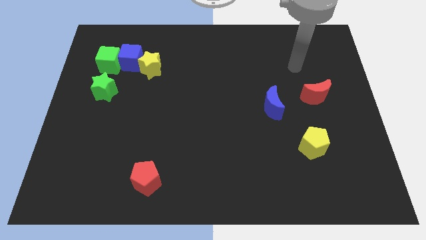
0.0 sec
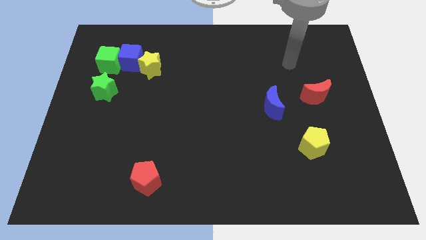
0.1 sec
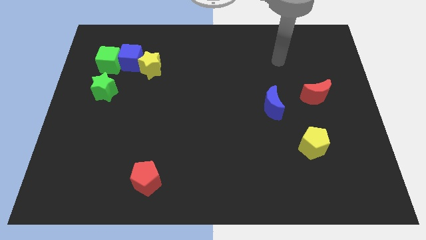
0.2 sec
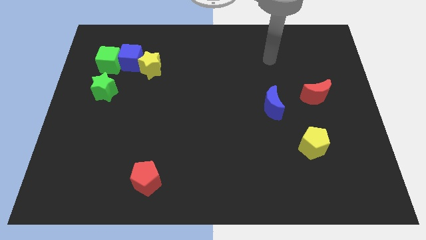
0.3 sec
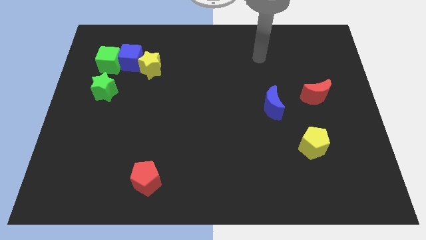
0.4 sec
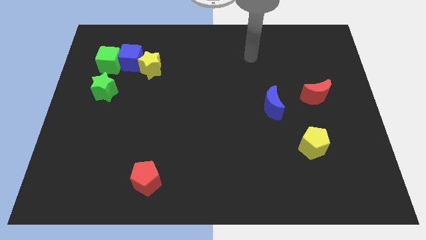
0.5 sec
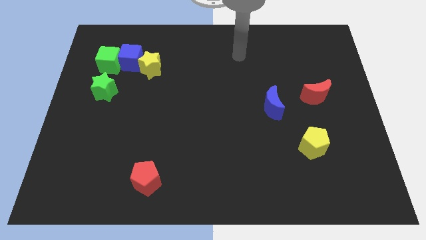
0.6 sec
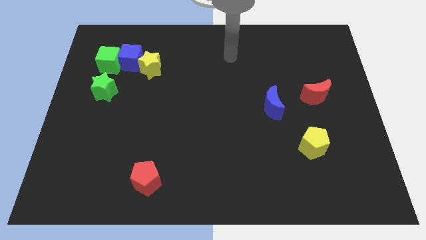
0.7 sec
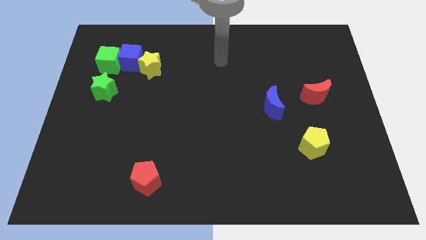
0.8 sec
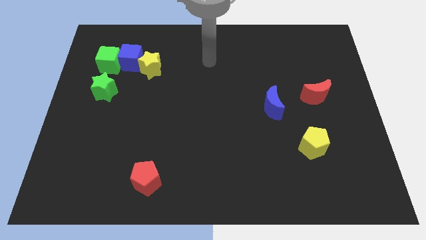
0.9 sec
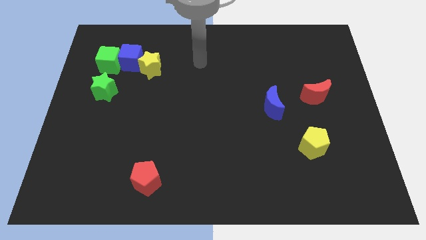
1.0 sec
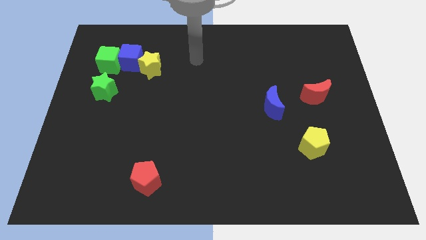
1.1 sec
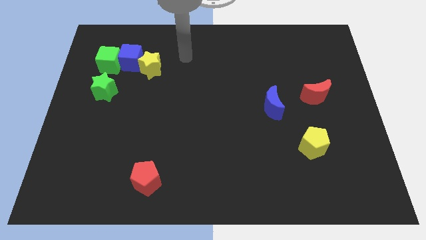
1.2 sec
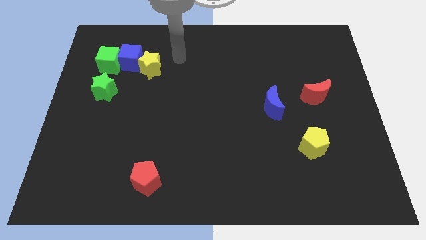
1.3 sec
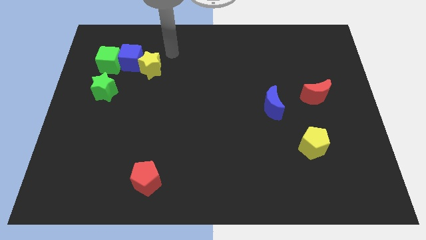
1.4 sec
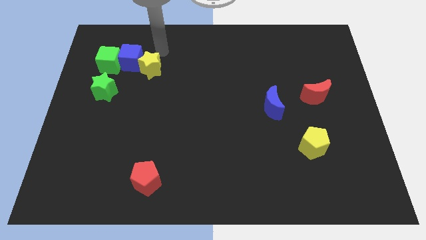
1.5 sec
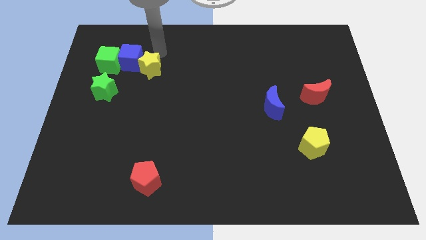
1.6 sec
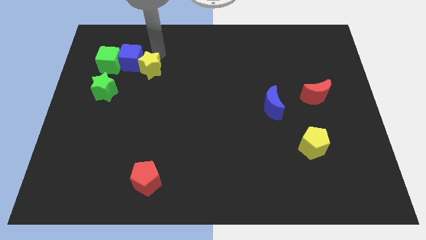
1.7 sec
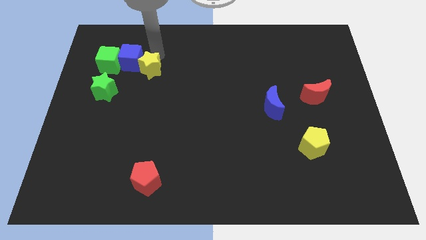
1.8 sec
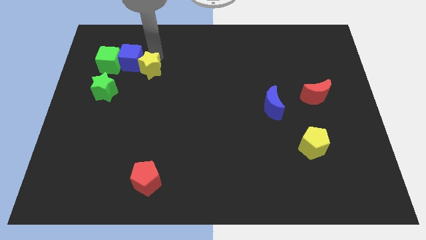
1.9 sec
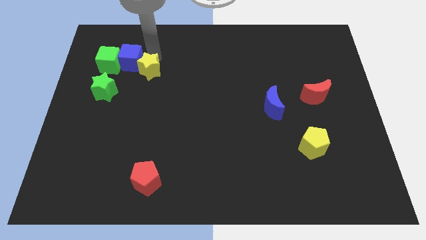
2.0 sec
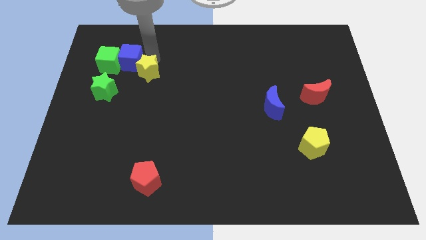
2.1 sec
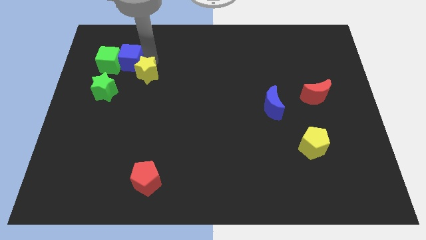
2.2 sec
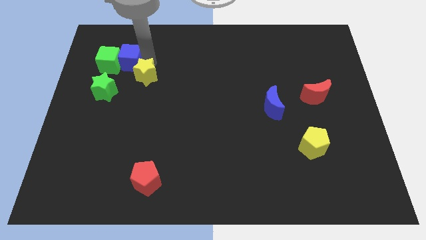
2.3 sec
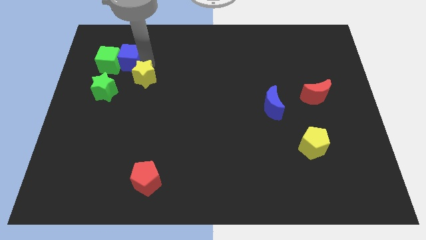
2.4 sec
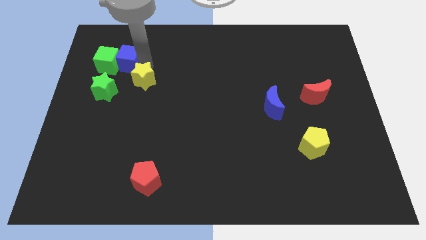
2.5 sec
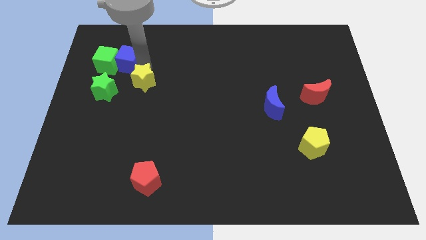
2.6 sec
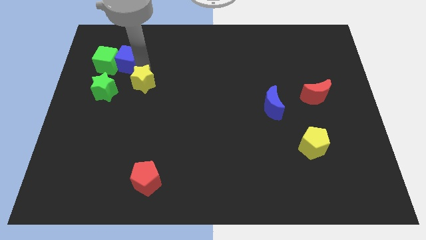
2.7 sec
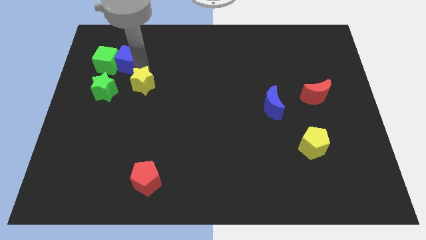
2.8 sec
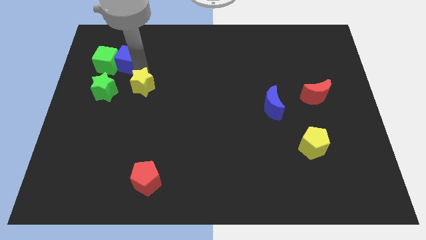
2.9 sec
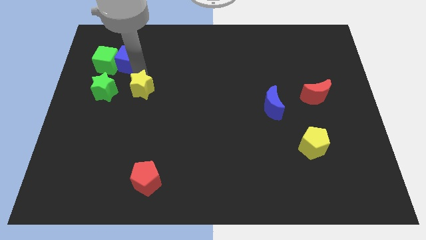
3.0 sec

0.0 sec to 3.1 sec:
push the yellow star downwards somewhat

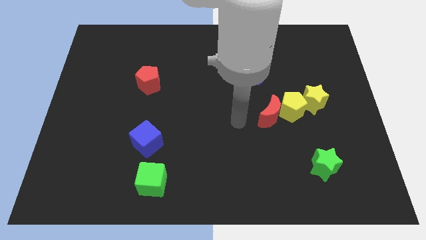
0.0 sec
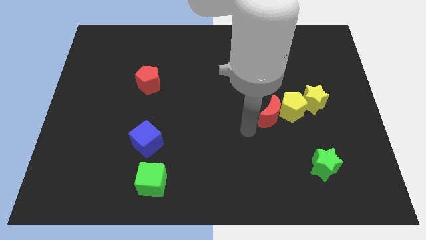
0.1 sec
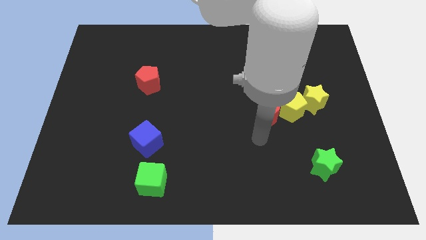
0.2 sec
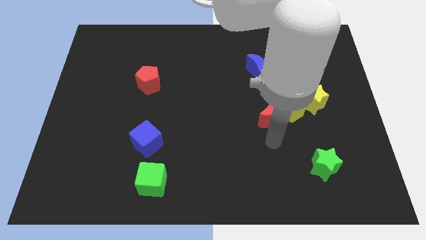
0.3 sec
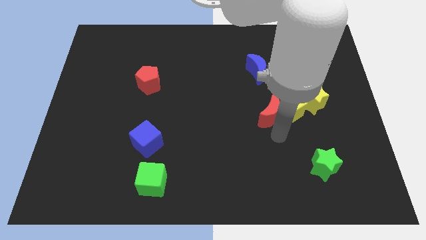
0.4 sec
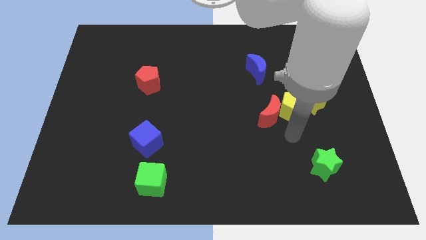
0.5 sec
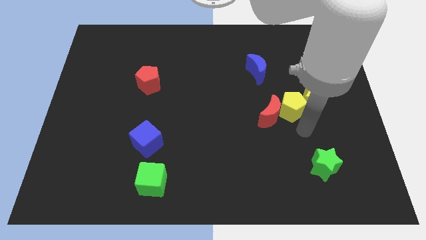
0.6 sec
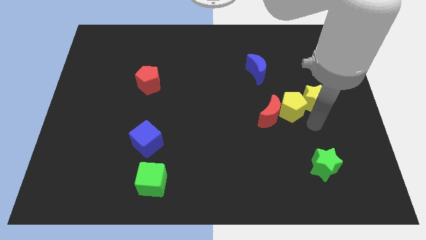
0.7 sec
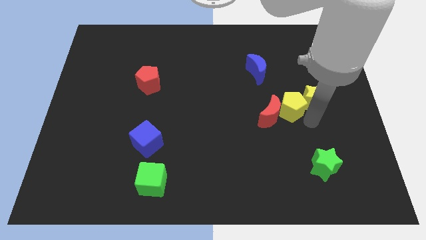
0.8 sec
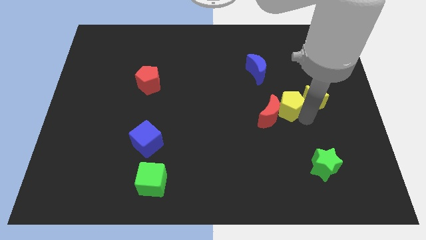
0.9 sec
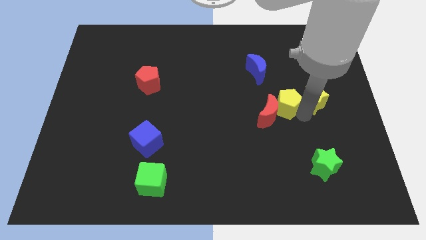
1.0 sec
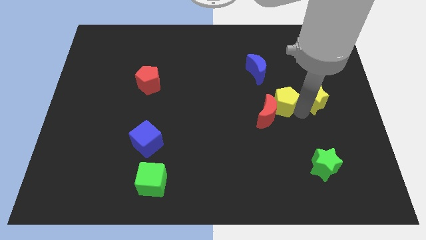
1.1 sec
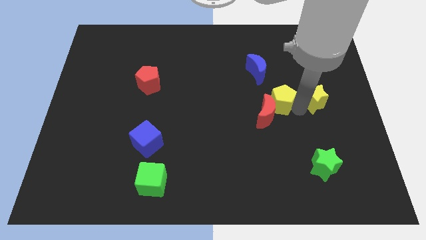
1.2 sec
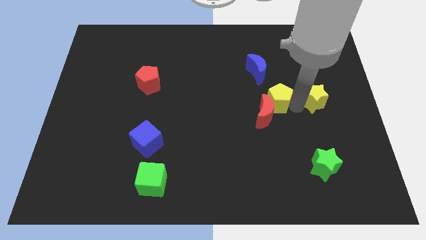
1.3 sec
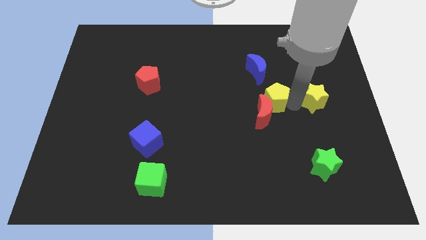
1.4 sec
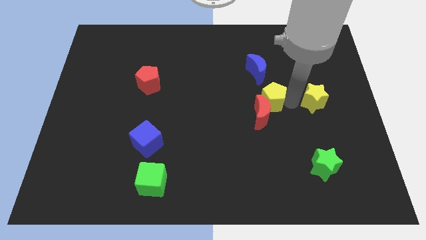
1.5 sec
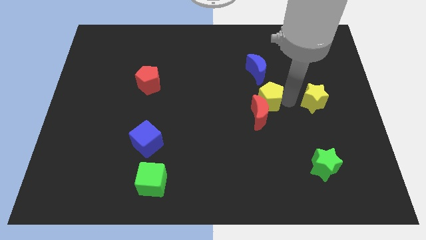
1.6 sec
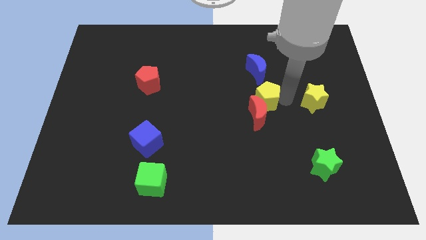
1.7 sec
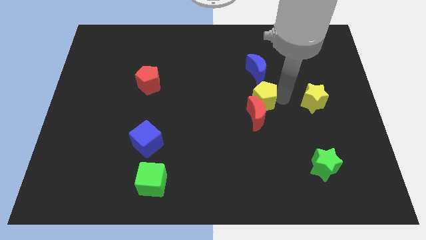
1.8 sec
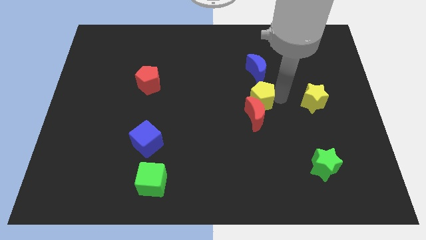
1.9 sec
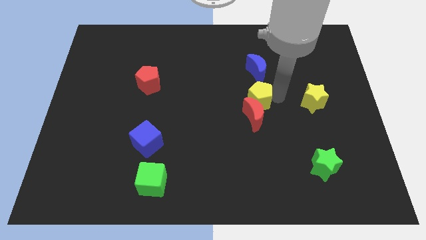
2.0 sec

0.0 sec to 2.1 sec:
slightly push the yellow pentagon to the left

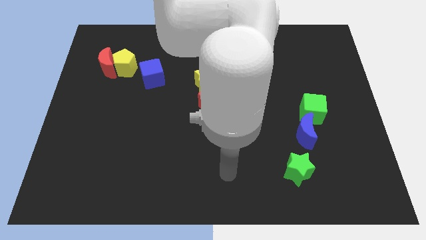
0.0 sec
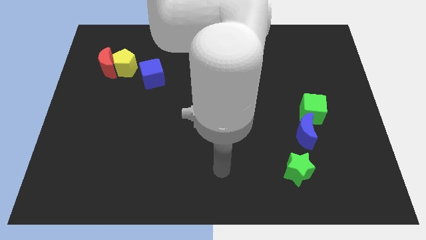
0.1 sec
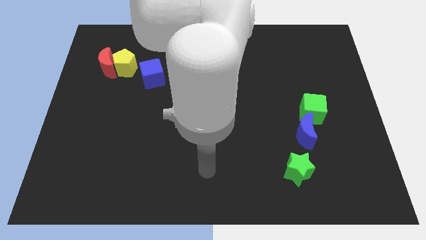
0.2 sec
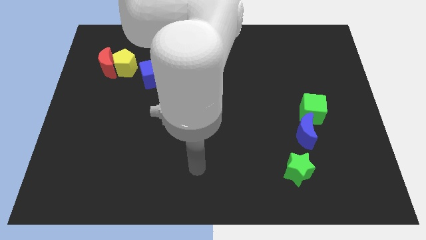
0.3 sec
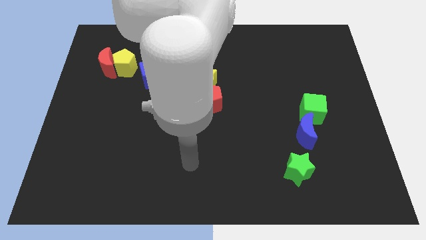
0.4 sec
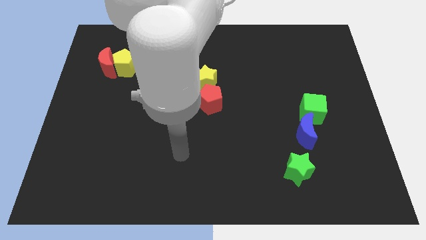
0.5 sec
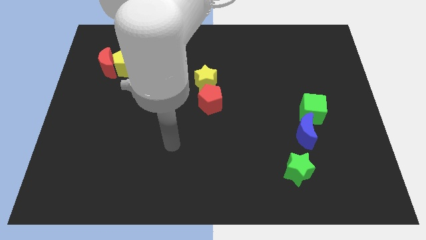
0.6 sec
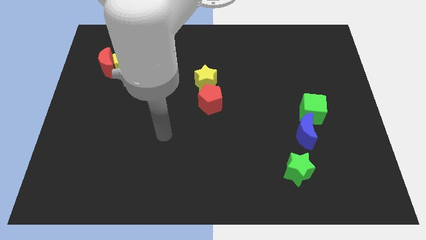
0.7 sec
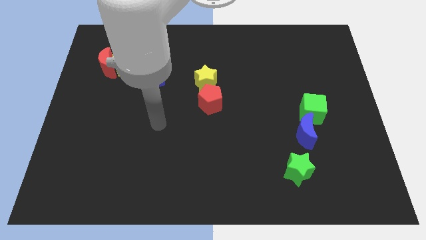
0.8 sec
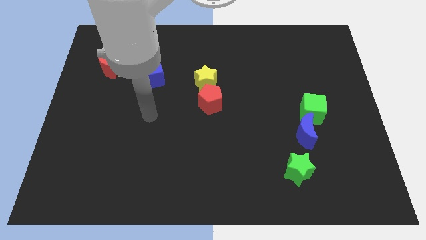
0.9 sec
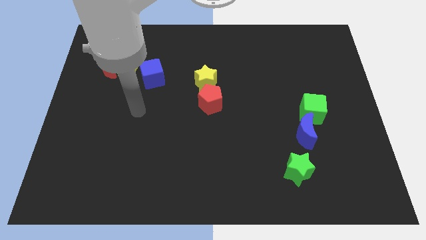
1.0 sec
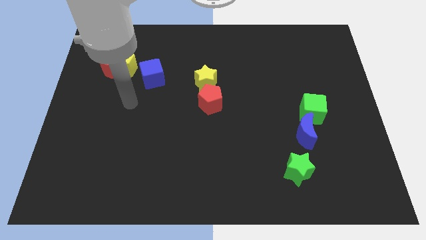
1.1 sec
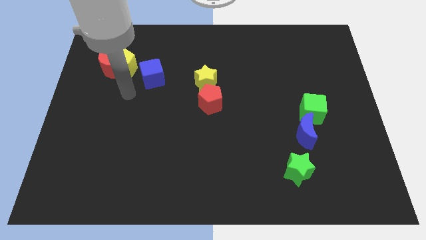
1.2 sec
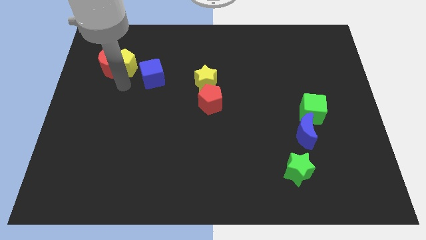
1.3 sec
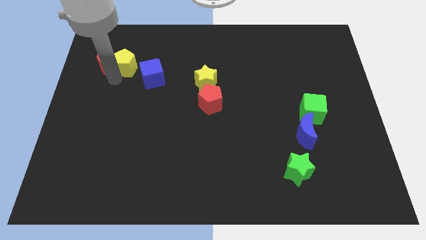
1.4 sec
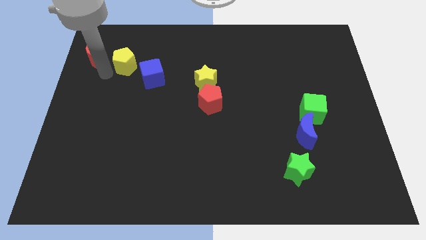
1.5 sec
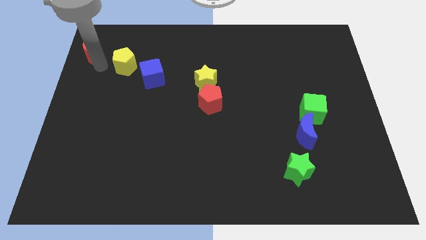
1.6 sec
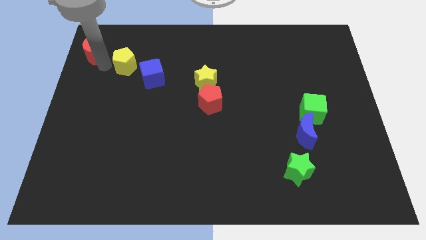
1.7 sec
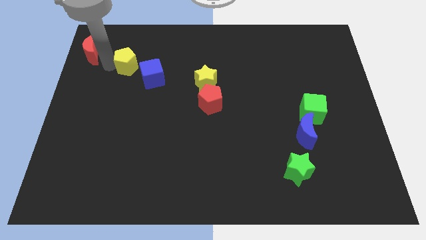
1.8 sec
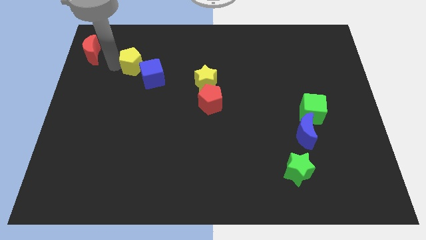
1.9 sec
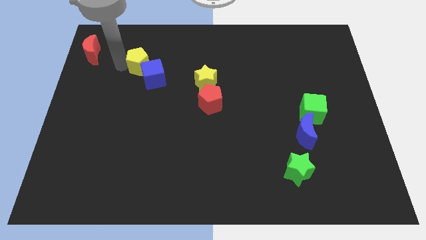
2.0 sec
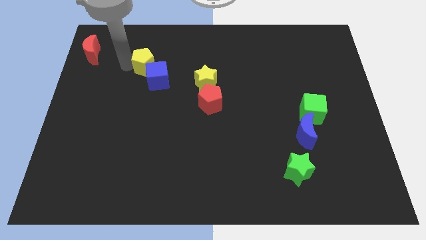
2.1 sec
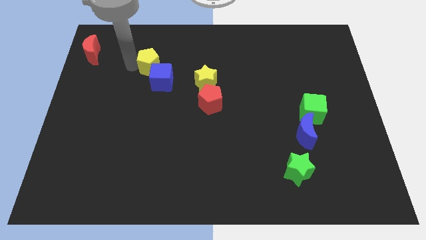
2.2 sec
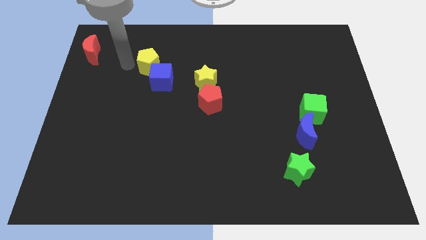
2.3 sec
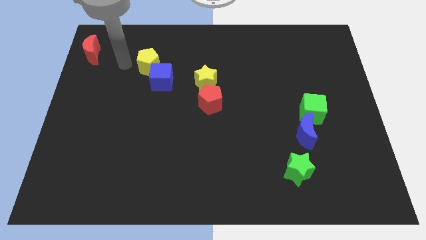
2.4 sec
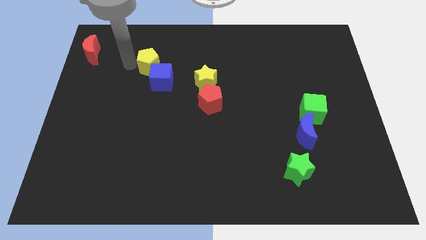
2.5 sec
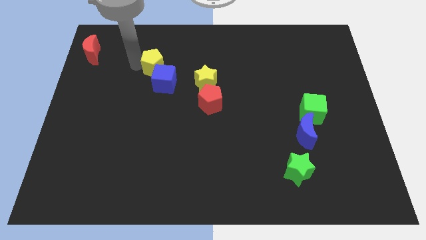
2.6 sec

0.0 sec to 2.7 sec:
push the yellow pentagon a little right

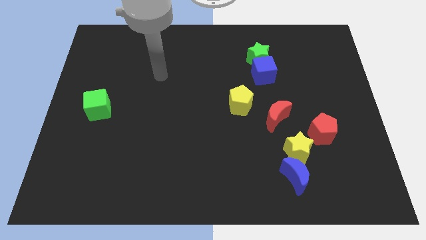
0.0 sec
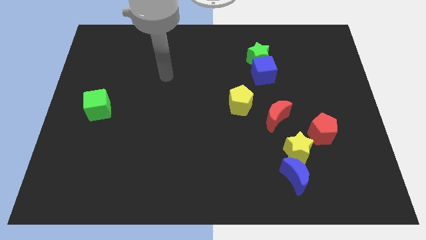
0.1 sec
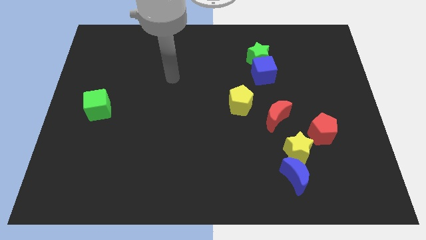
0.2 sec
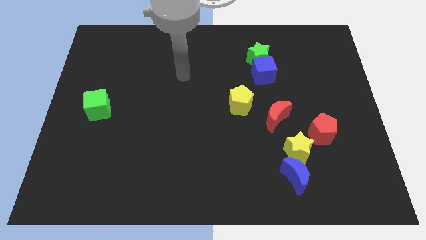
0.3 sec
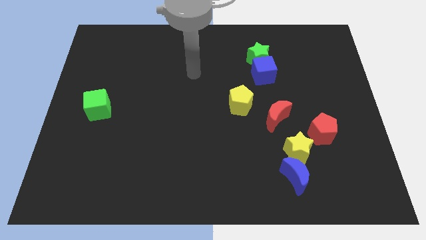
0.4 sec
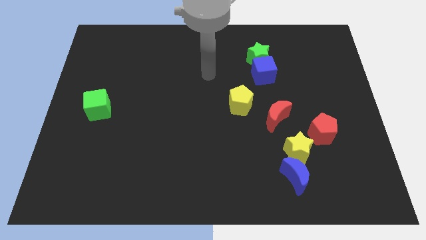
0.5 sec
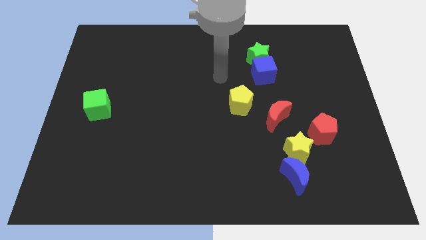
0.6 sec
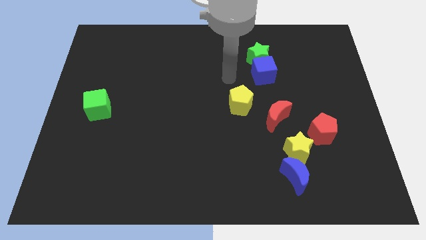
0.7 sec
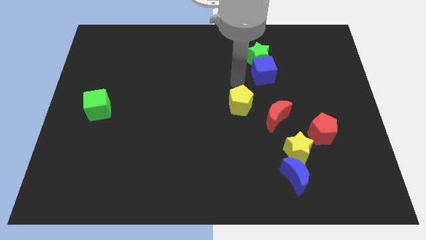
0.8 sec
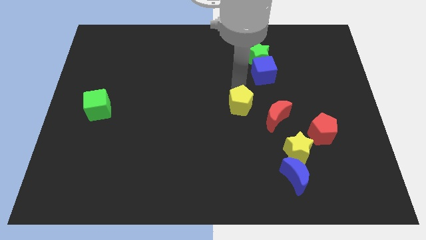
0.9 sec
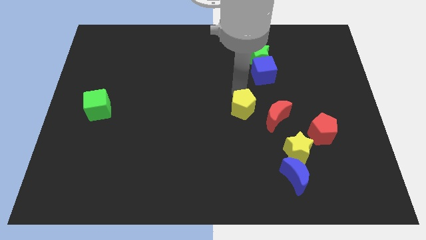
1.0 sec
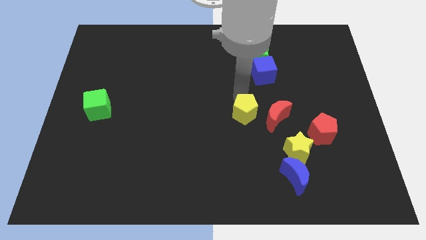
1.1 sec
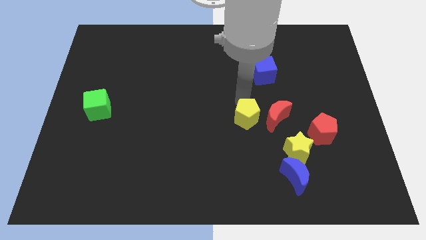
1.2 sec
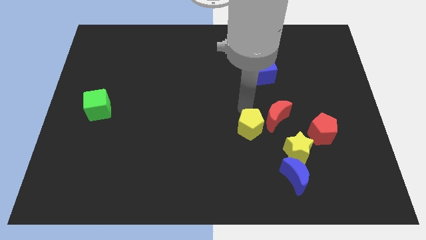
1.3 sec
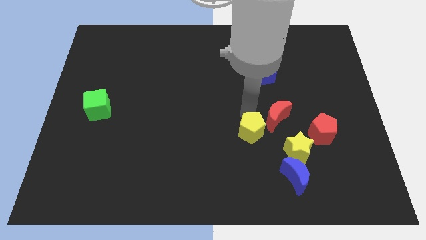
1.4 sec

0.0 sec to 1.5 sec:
push the yellow pentagon down a bit
